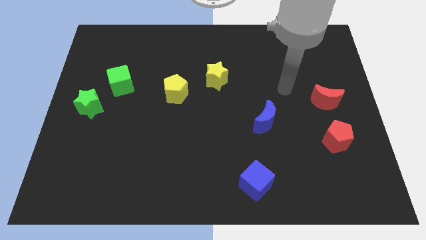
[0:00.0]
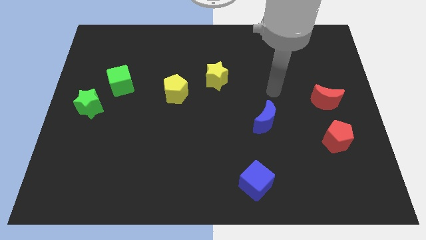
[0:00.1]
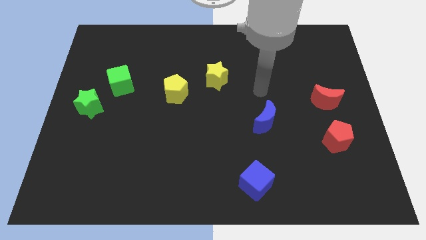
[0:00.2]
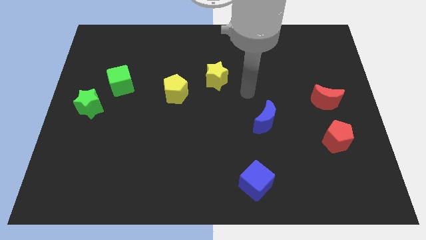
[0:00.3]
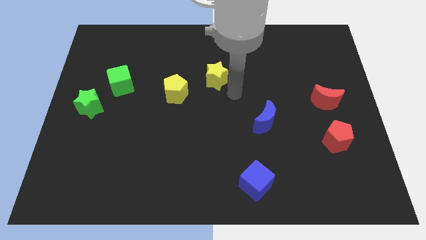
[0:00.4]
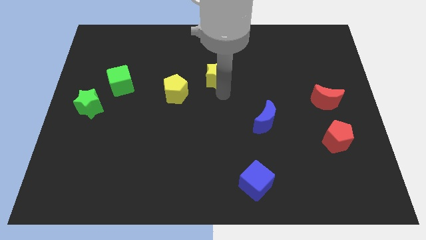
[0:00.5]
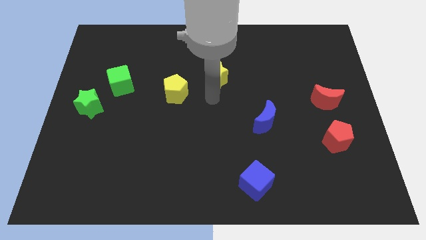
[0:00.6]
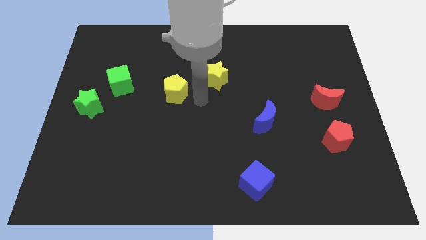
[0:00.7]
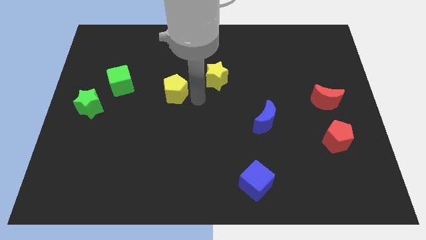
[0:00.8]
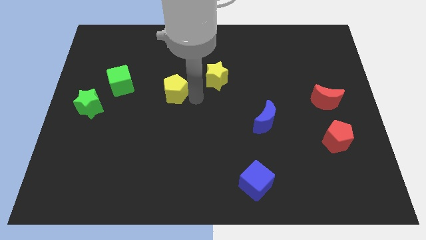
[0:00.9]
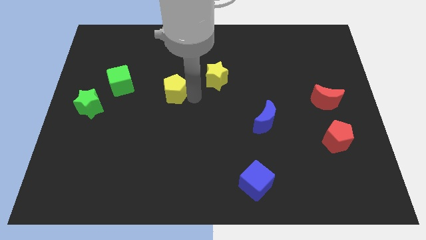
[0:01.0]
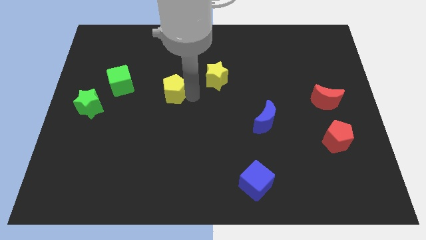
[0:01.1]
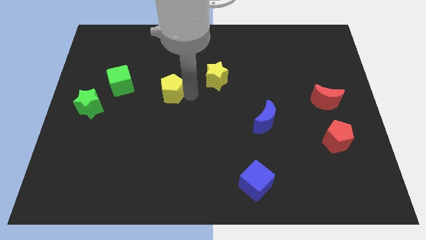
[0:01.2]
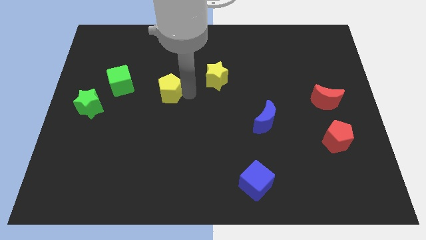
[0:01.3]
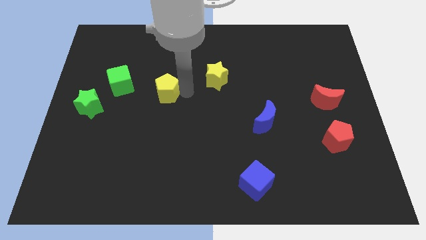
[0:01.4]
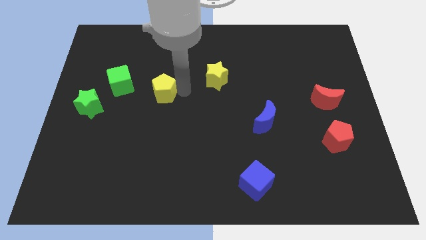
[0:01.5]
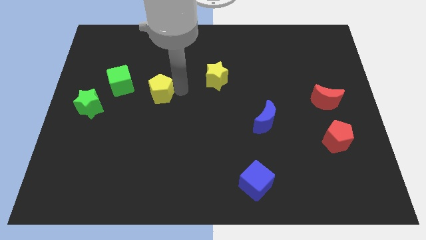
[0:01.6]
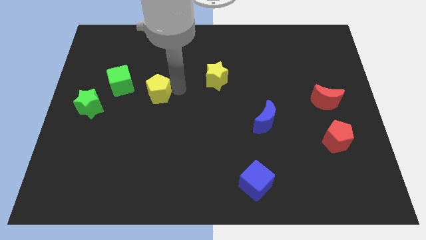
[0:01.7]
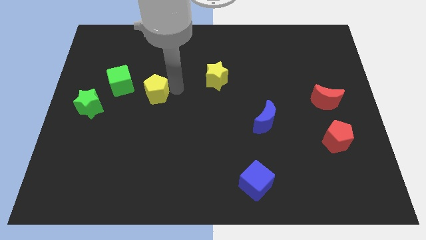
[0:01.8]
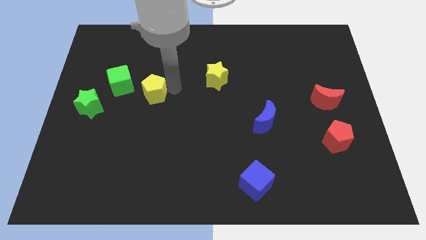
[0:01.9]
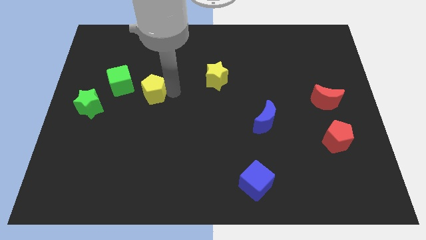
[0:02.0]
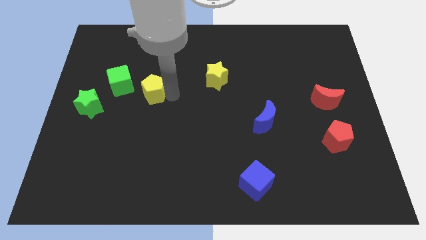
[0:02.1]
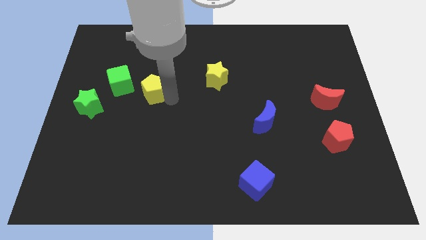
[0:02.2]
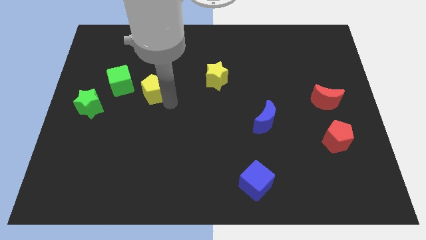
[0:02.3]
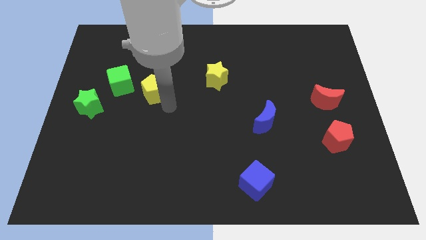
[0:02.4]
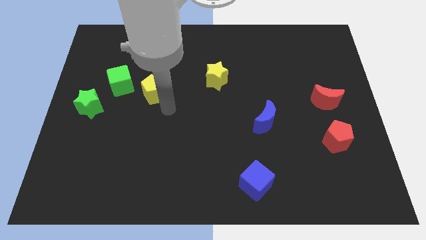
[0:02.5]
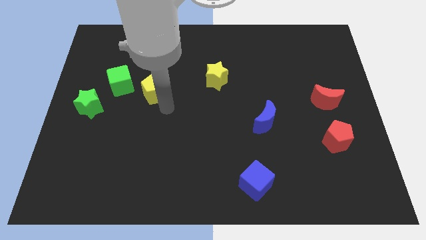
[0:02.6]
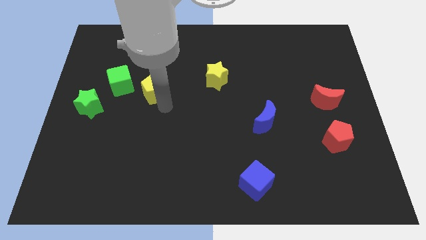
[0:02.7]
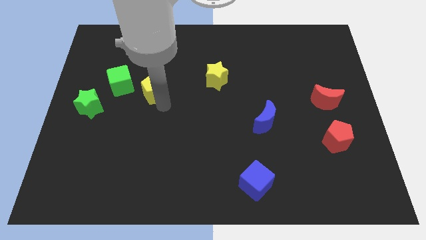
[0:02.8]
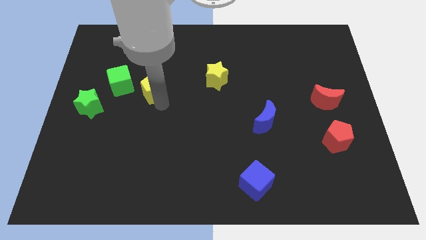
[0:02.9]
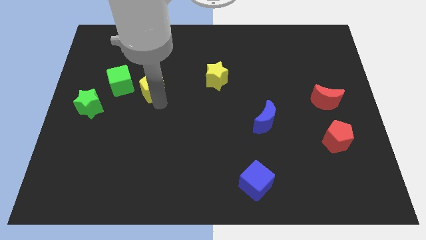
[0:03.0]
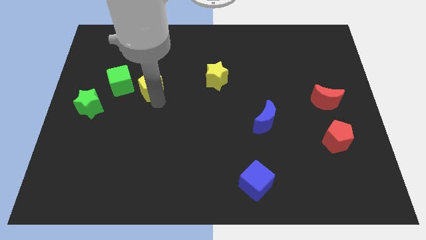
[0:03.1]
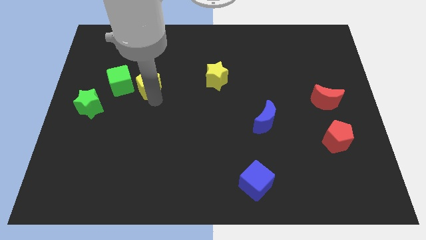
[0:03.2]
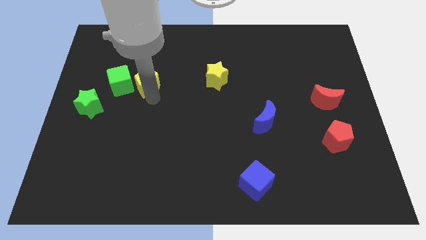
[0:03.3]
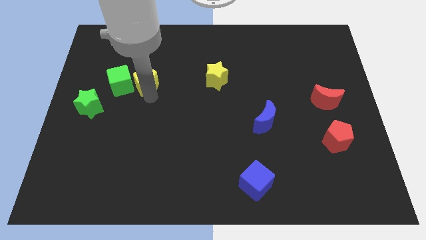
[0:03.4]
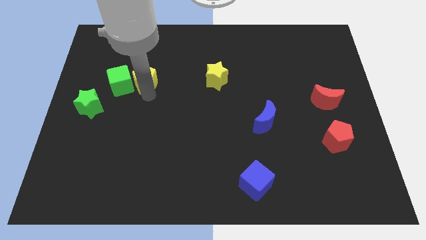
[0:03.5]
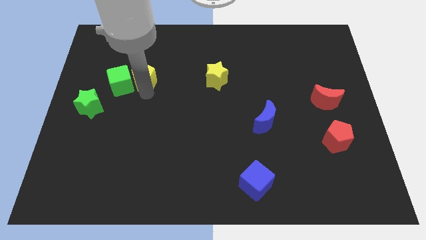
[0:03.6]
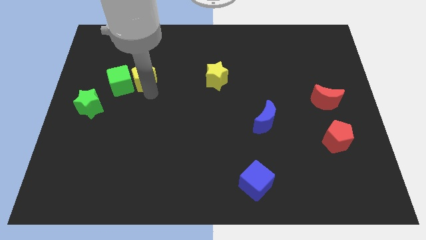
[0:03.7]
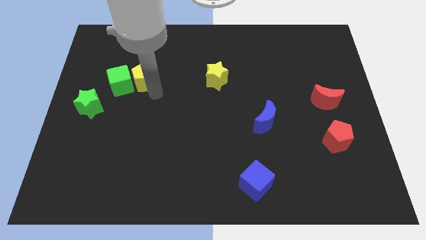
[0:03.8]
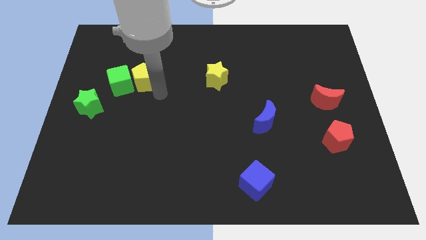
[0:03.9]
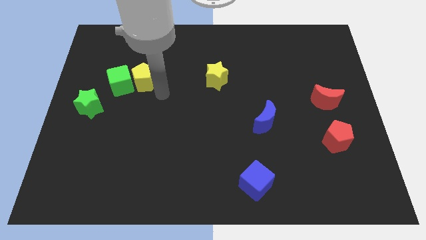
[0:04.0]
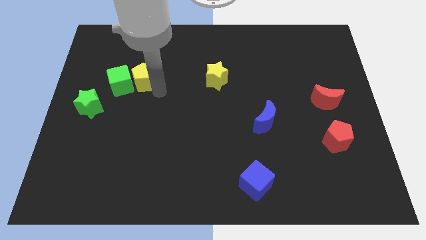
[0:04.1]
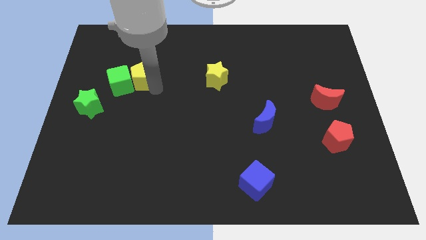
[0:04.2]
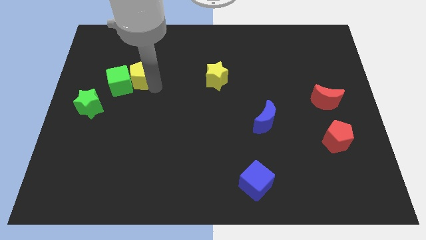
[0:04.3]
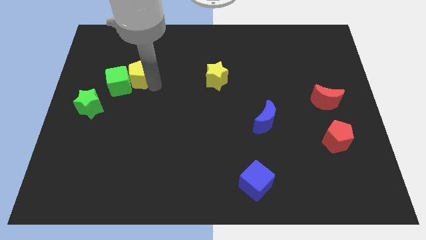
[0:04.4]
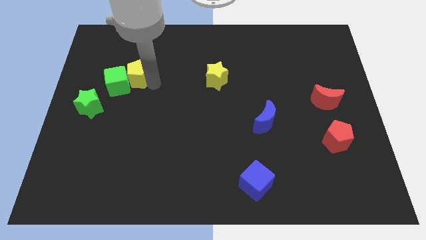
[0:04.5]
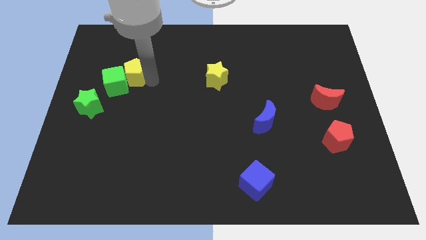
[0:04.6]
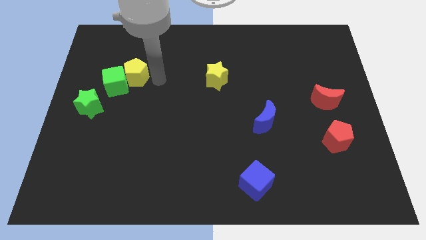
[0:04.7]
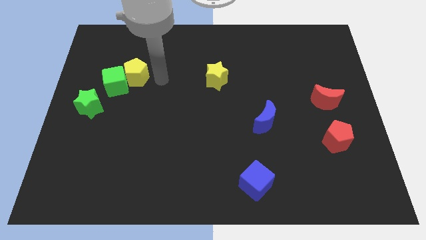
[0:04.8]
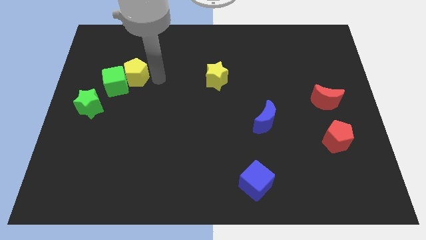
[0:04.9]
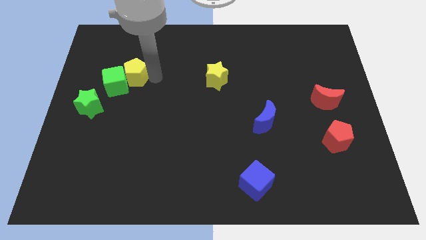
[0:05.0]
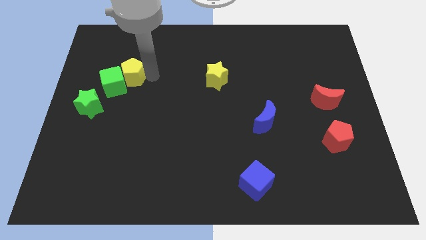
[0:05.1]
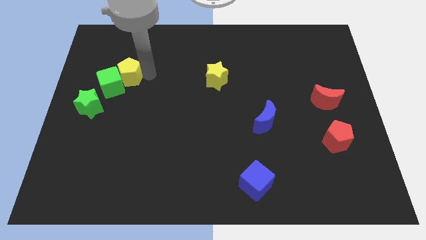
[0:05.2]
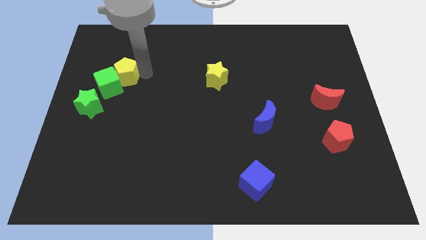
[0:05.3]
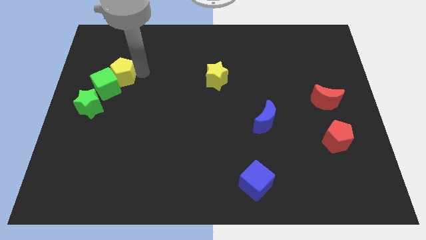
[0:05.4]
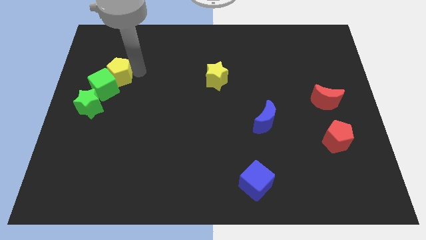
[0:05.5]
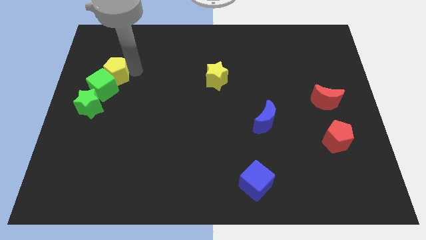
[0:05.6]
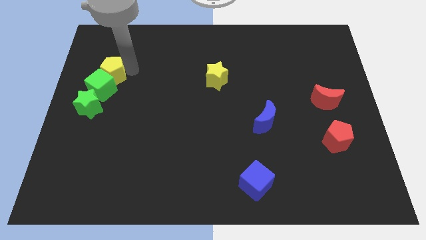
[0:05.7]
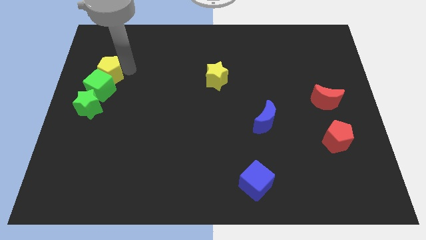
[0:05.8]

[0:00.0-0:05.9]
put the yellow pentagon to the top left of the green cube
